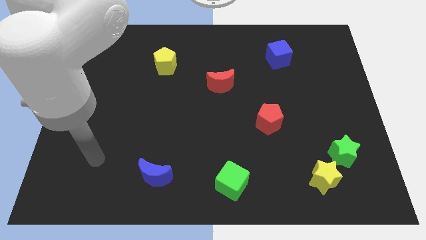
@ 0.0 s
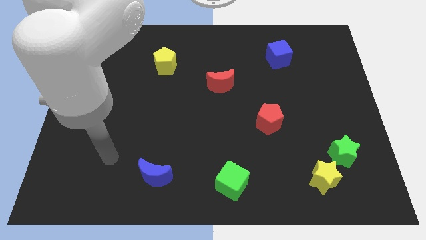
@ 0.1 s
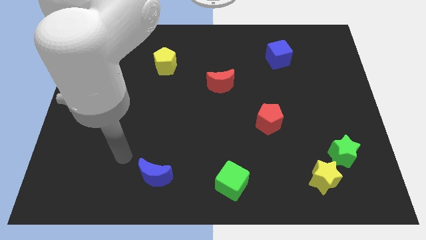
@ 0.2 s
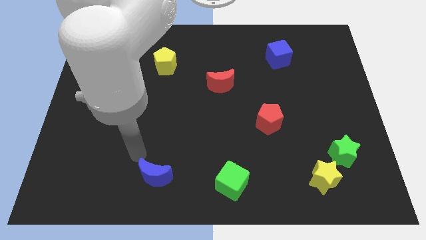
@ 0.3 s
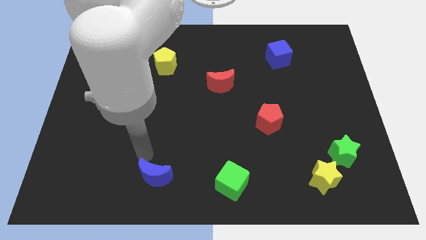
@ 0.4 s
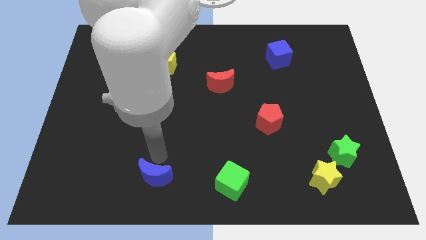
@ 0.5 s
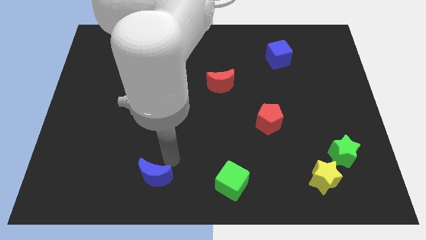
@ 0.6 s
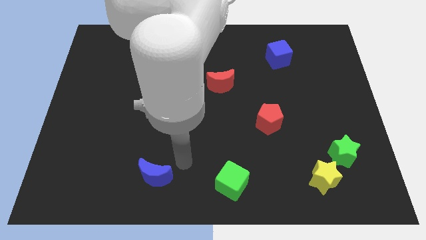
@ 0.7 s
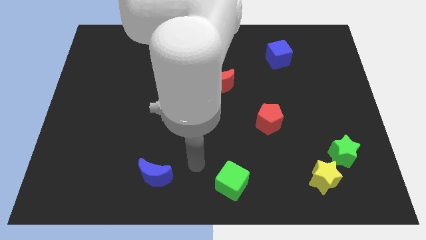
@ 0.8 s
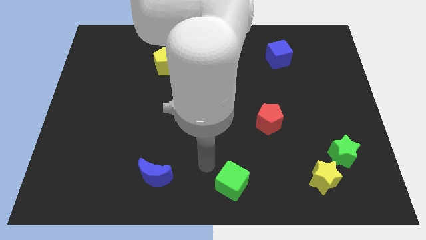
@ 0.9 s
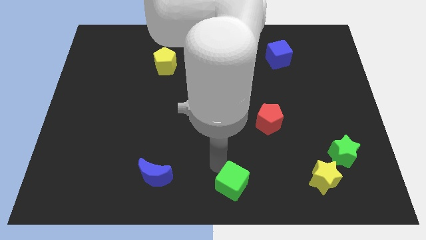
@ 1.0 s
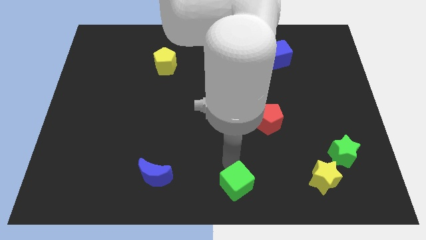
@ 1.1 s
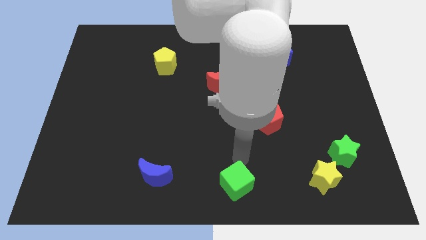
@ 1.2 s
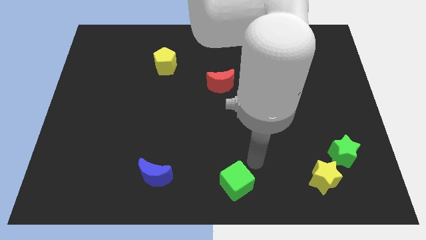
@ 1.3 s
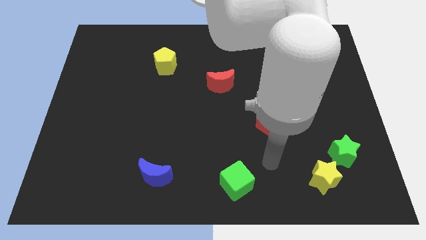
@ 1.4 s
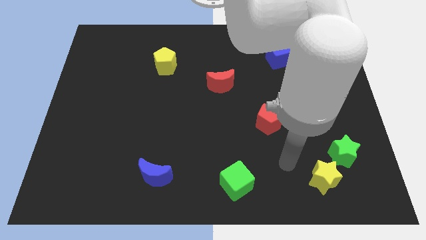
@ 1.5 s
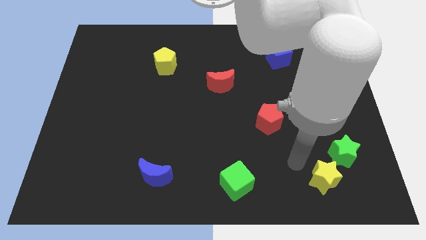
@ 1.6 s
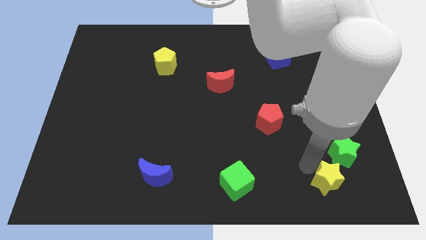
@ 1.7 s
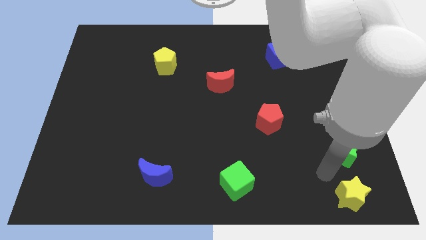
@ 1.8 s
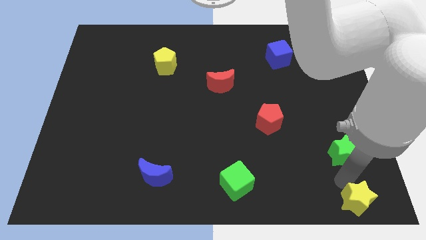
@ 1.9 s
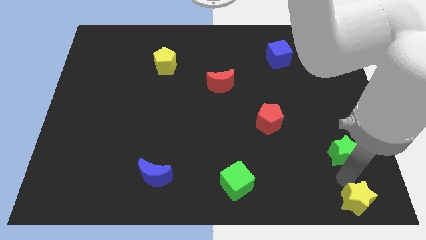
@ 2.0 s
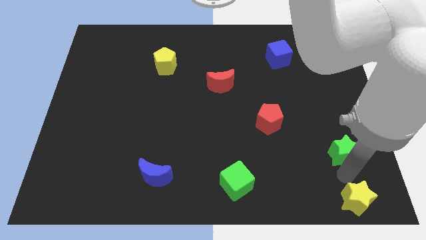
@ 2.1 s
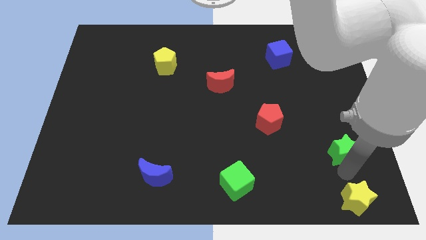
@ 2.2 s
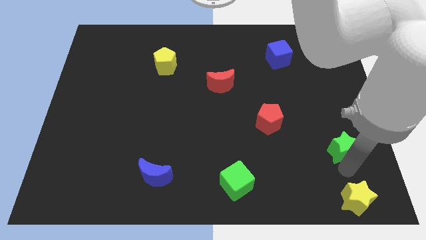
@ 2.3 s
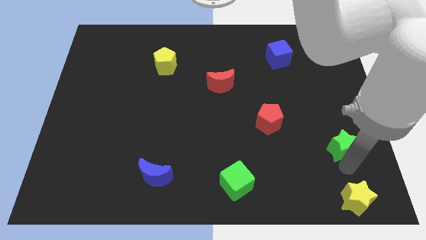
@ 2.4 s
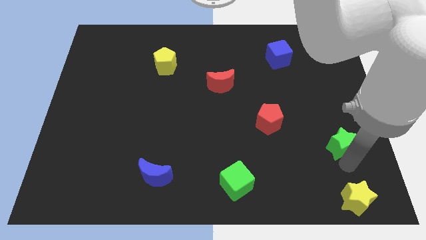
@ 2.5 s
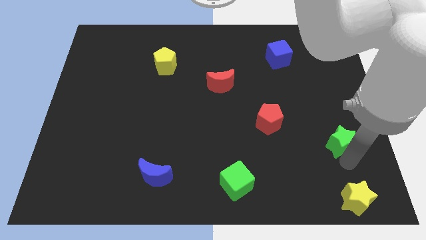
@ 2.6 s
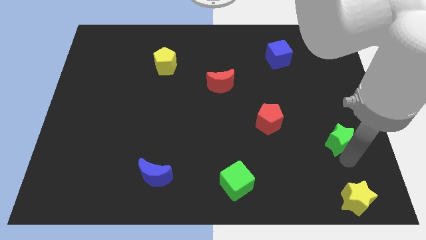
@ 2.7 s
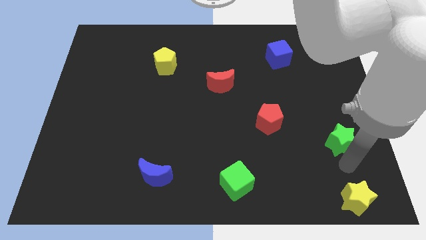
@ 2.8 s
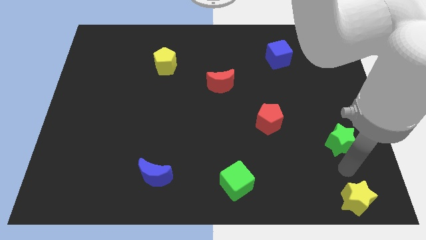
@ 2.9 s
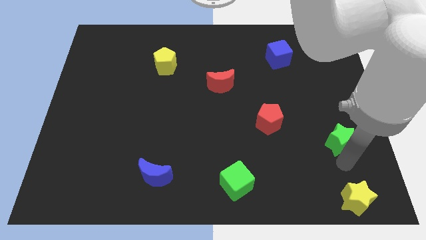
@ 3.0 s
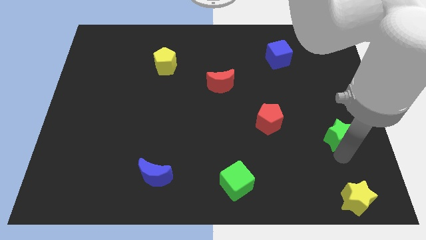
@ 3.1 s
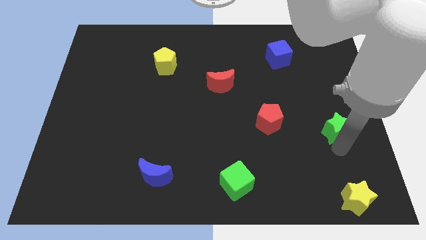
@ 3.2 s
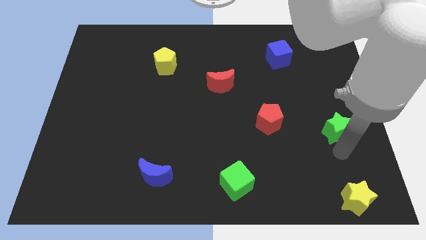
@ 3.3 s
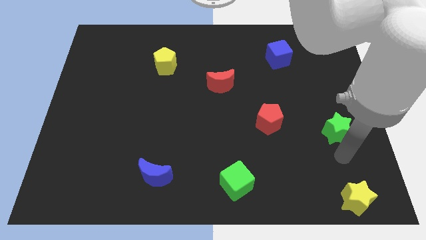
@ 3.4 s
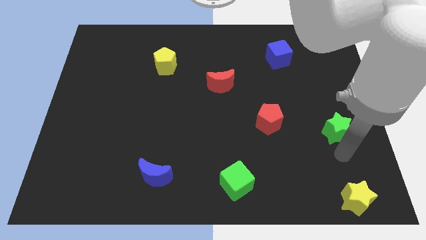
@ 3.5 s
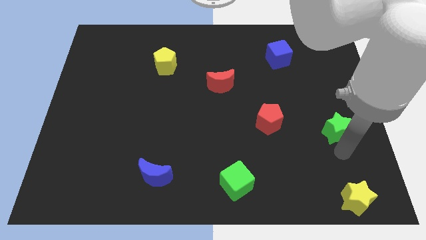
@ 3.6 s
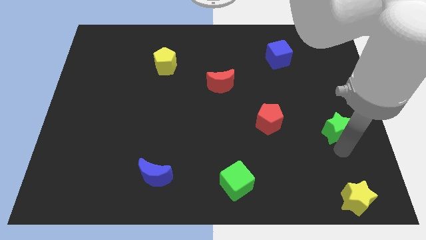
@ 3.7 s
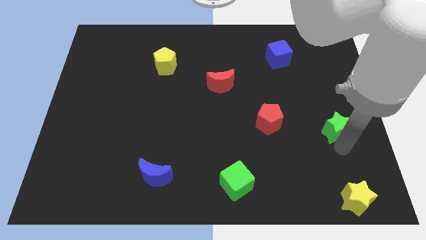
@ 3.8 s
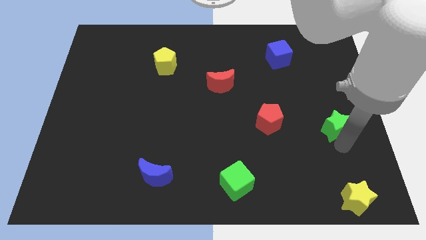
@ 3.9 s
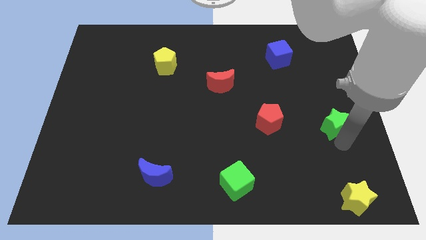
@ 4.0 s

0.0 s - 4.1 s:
push the green star up slightly

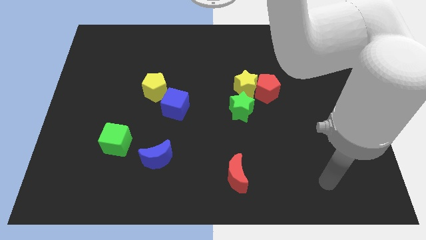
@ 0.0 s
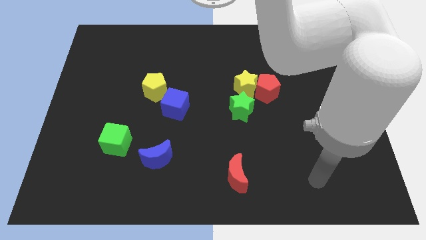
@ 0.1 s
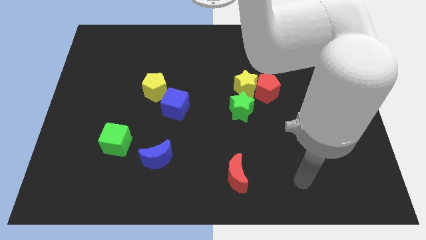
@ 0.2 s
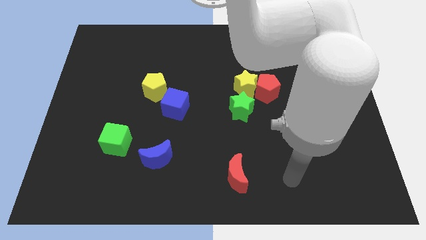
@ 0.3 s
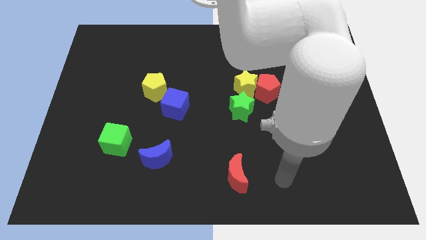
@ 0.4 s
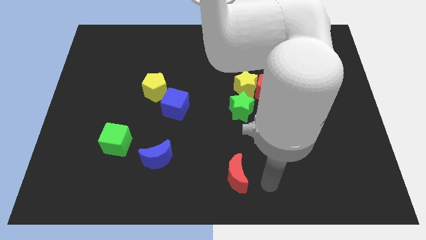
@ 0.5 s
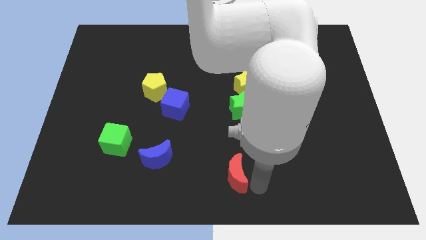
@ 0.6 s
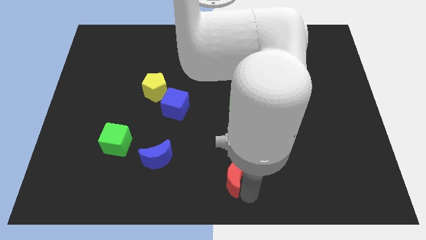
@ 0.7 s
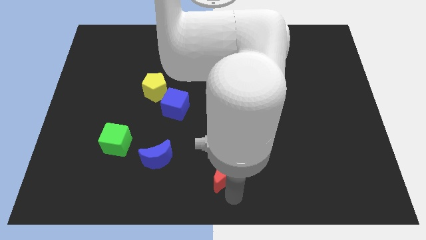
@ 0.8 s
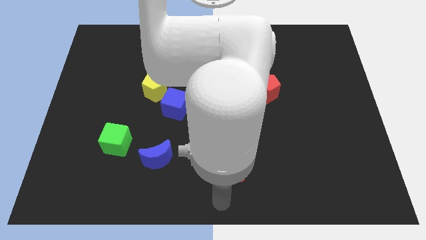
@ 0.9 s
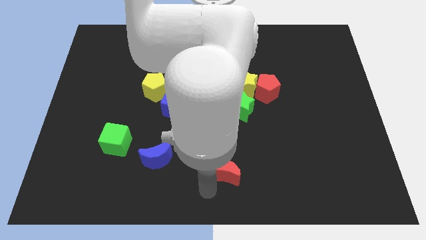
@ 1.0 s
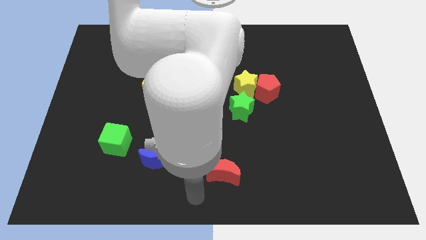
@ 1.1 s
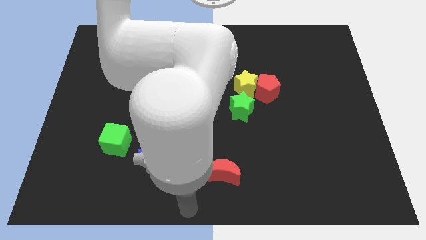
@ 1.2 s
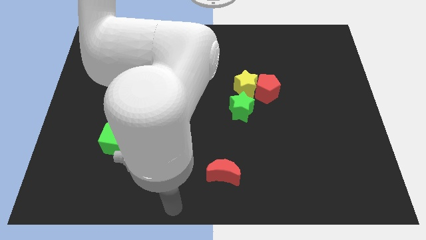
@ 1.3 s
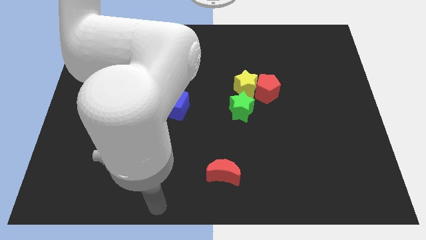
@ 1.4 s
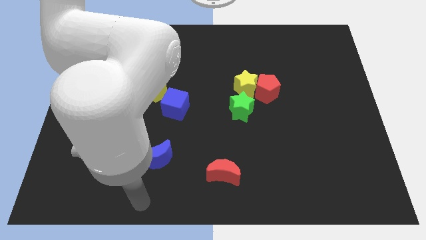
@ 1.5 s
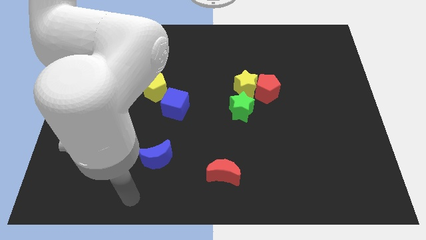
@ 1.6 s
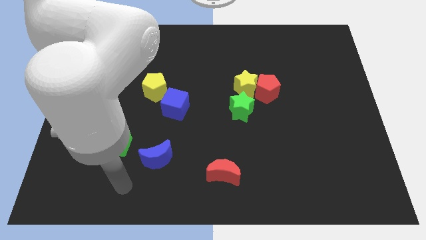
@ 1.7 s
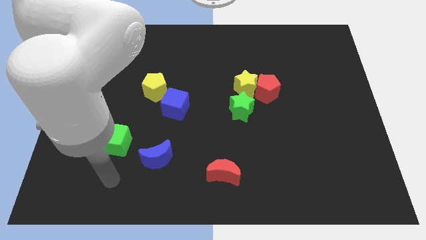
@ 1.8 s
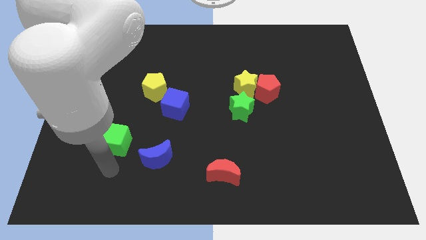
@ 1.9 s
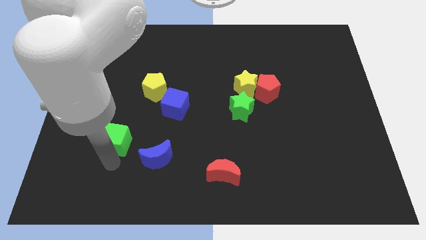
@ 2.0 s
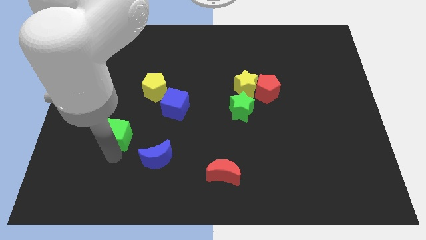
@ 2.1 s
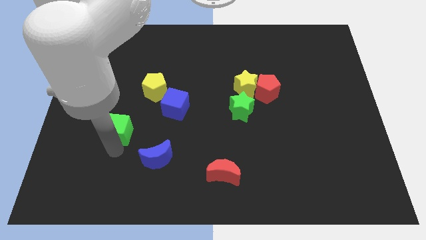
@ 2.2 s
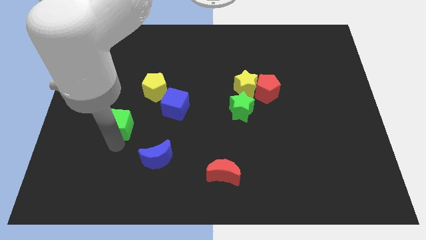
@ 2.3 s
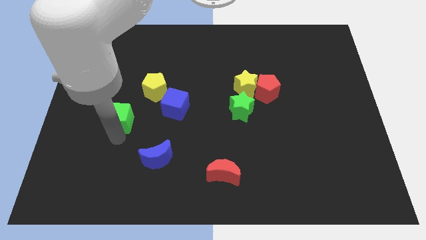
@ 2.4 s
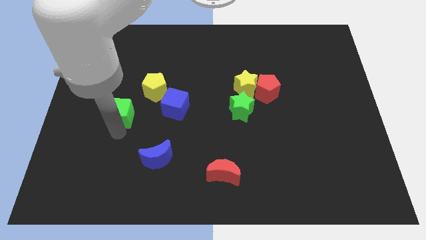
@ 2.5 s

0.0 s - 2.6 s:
slide the green cube slightly up

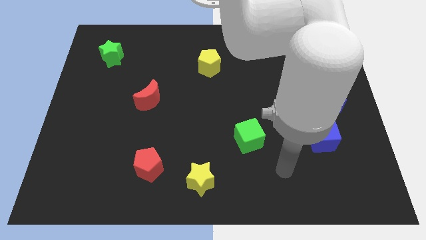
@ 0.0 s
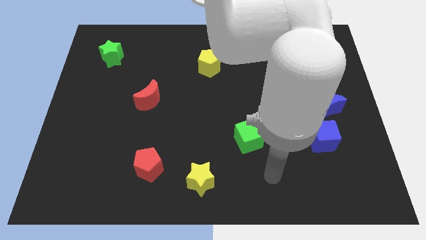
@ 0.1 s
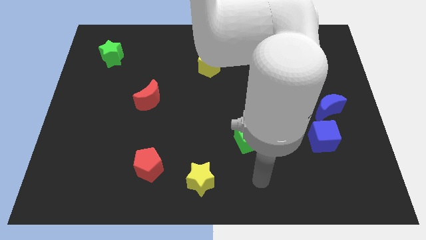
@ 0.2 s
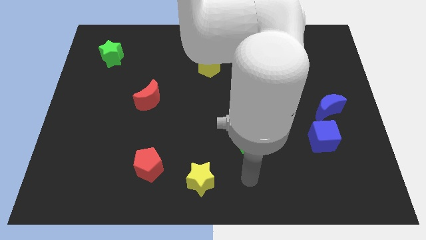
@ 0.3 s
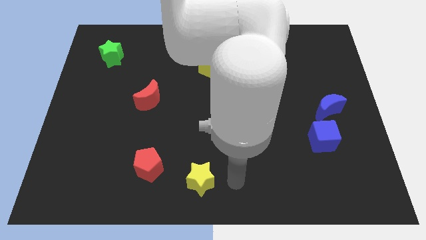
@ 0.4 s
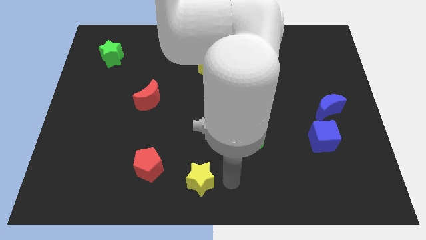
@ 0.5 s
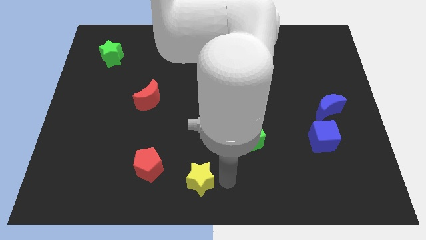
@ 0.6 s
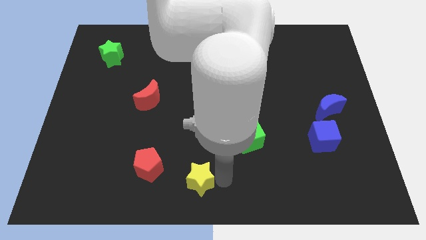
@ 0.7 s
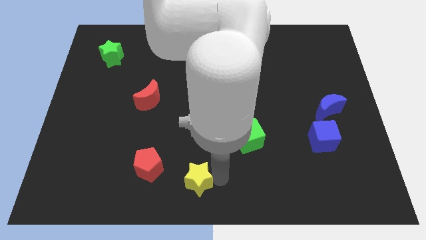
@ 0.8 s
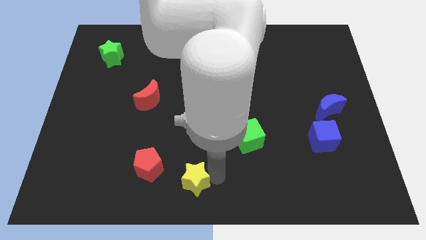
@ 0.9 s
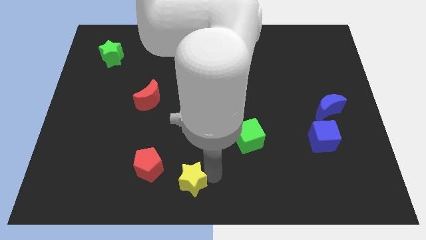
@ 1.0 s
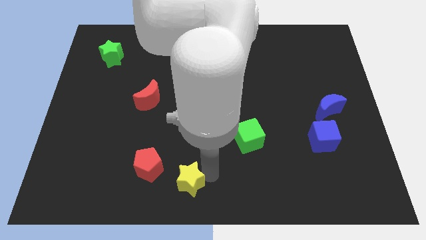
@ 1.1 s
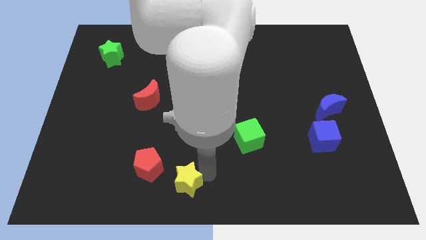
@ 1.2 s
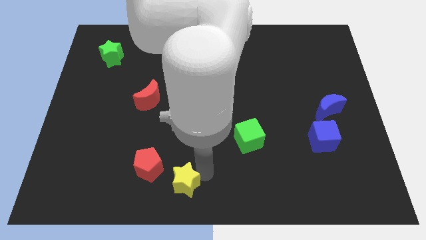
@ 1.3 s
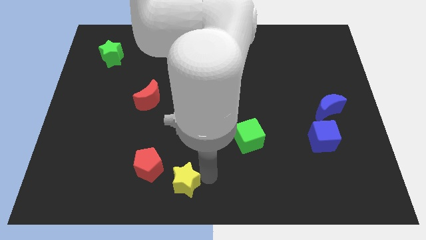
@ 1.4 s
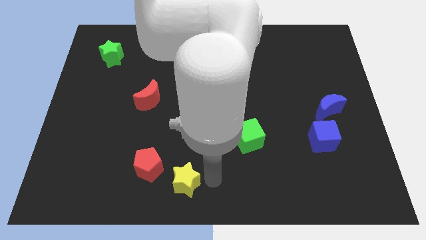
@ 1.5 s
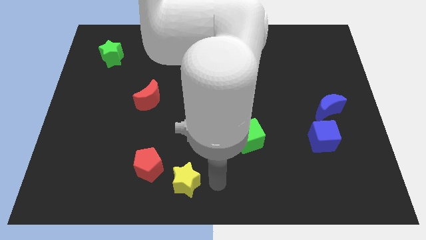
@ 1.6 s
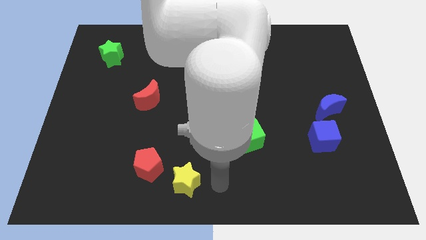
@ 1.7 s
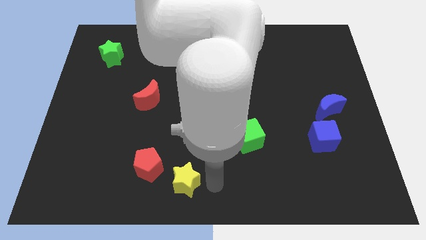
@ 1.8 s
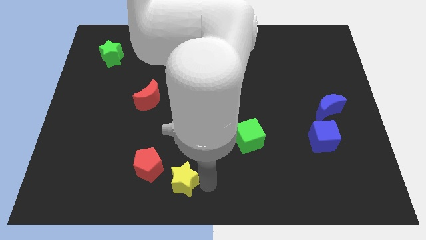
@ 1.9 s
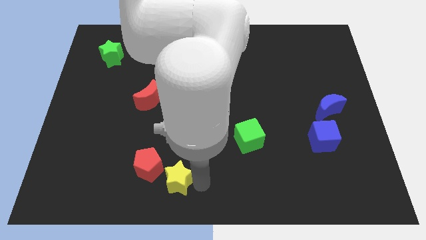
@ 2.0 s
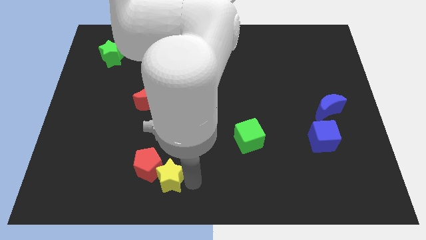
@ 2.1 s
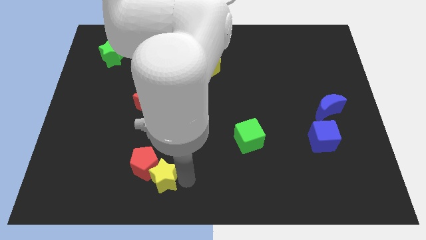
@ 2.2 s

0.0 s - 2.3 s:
move the yellow star somewhat to the left
